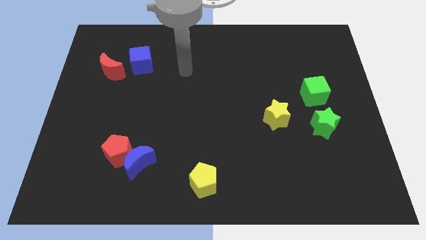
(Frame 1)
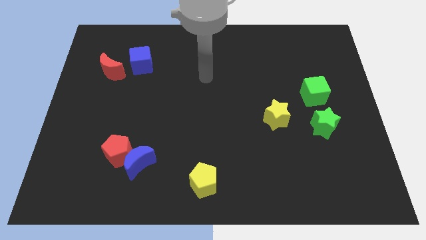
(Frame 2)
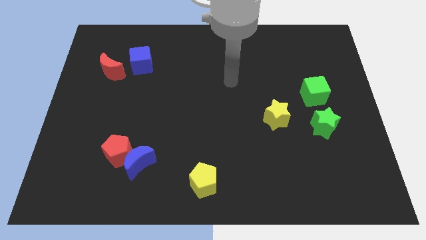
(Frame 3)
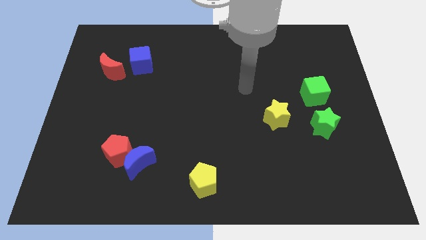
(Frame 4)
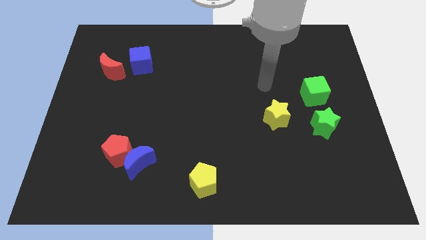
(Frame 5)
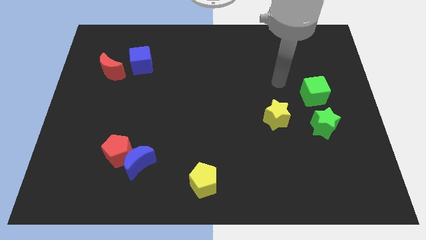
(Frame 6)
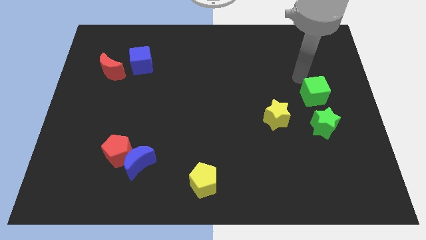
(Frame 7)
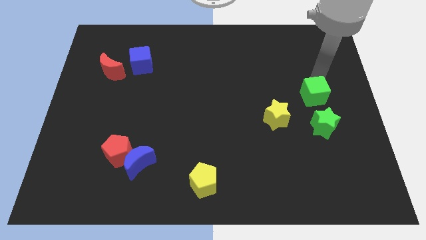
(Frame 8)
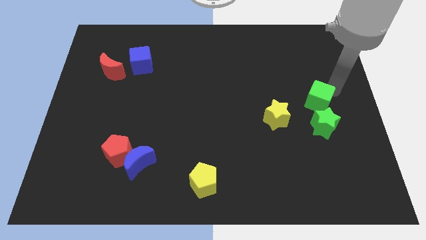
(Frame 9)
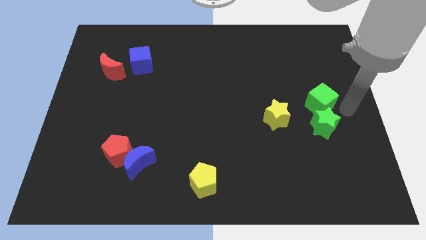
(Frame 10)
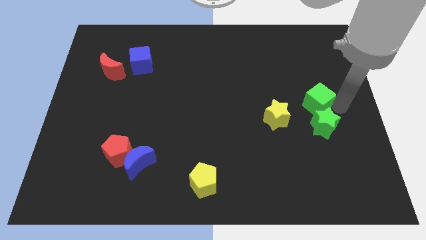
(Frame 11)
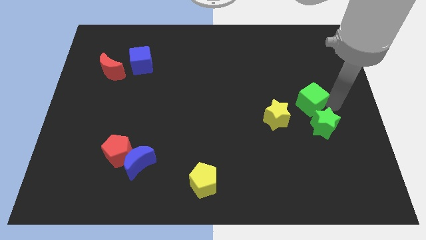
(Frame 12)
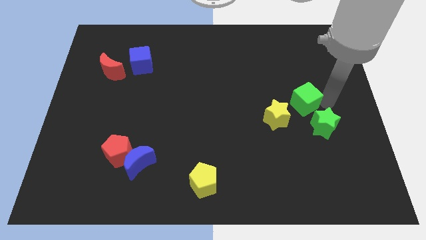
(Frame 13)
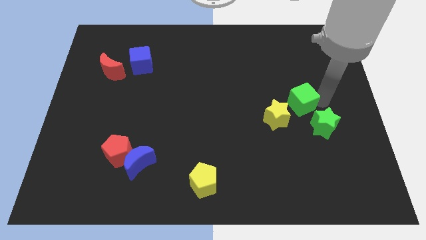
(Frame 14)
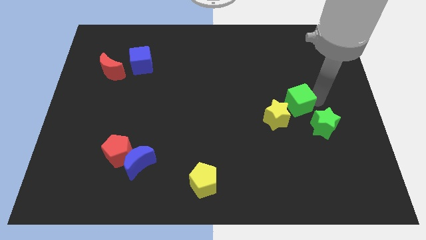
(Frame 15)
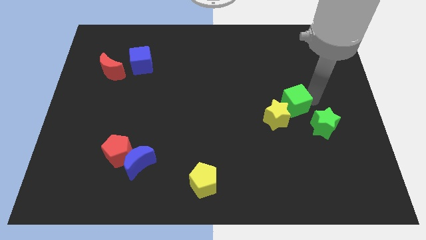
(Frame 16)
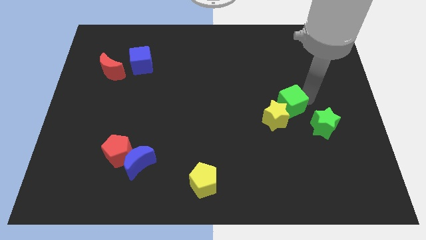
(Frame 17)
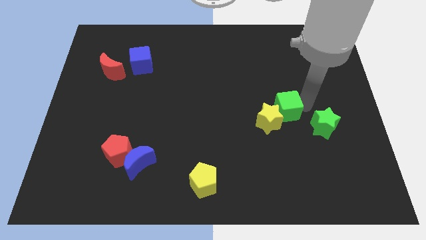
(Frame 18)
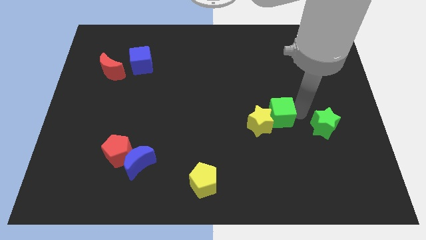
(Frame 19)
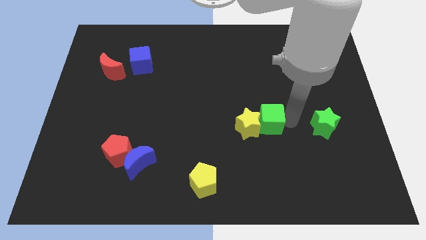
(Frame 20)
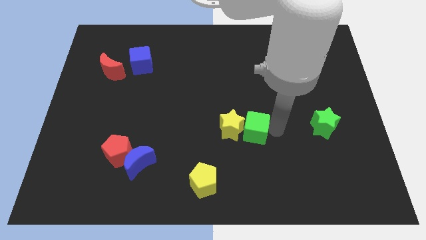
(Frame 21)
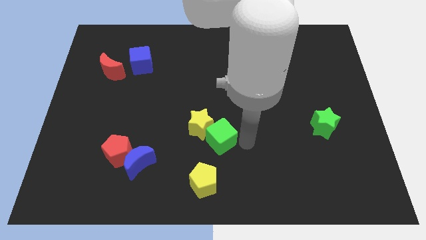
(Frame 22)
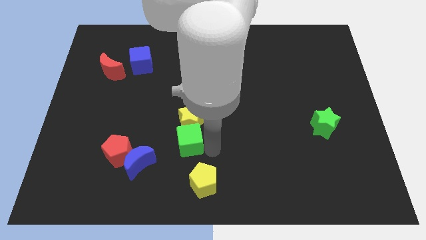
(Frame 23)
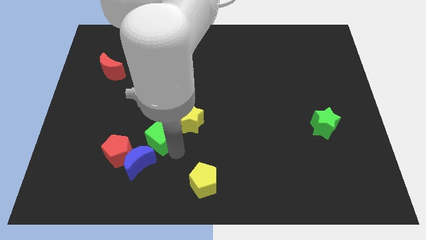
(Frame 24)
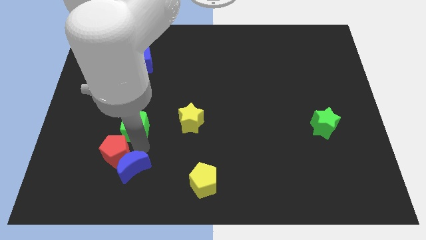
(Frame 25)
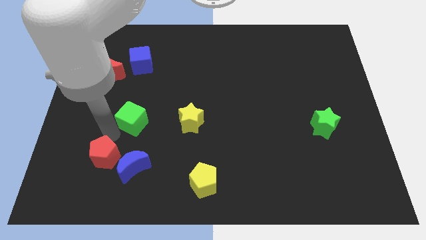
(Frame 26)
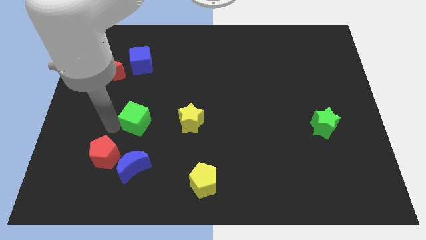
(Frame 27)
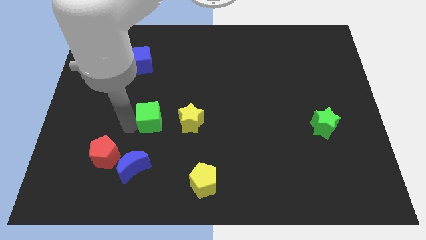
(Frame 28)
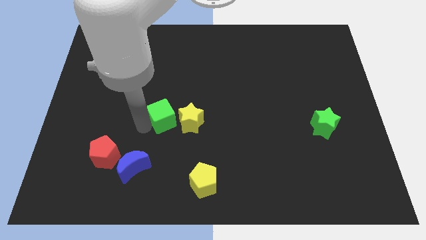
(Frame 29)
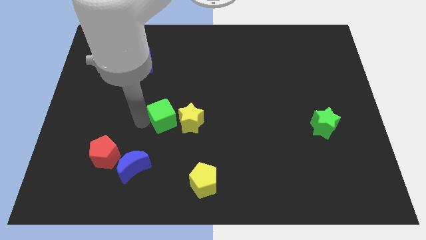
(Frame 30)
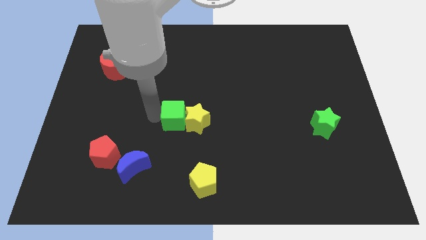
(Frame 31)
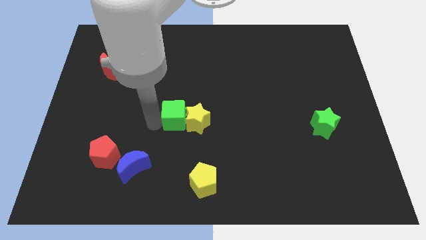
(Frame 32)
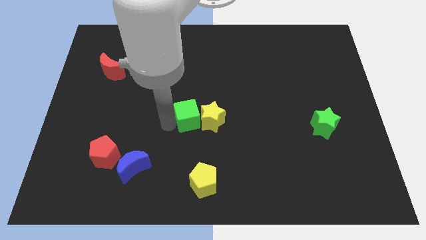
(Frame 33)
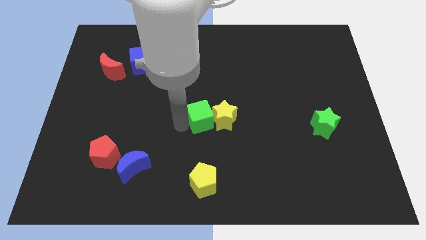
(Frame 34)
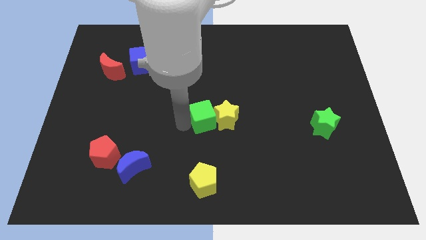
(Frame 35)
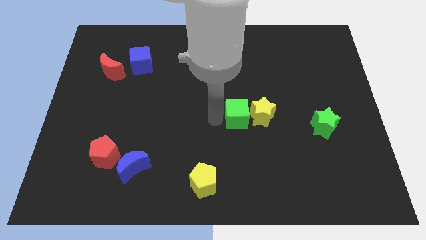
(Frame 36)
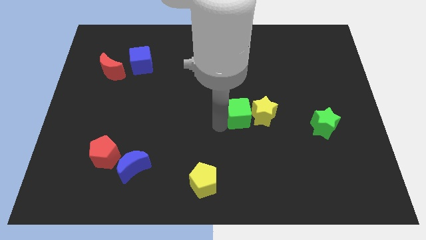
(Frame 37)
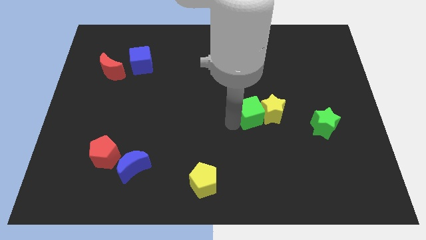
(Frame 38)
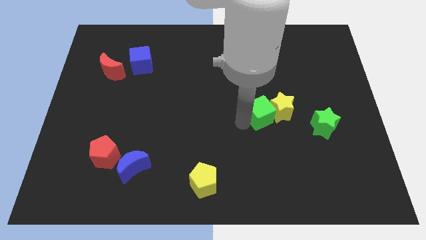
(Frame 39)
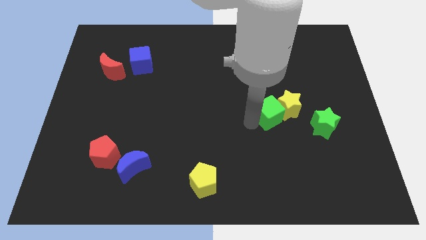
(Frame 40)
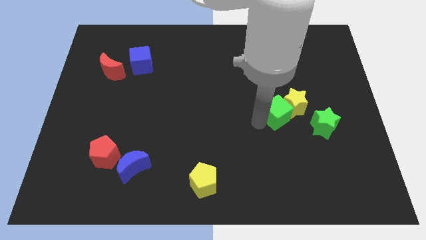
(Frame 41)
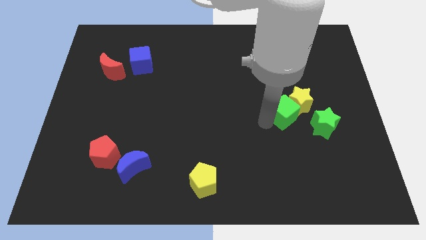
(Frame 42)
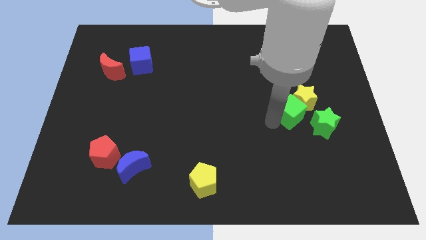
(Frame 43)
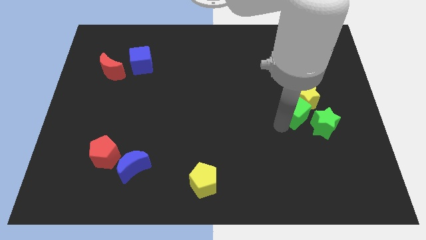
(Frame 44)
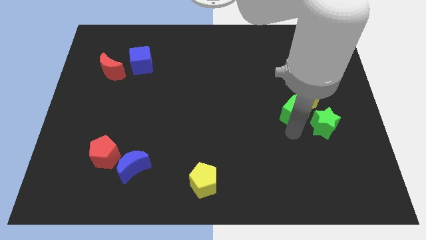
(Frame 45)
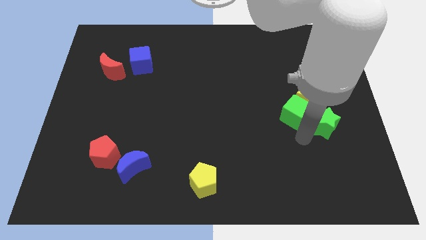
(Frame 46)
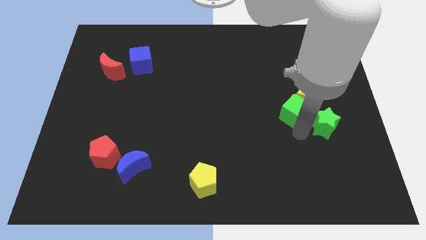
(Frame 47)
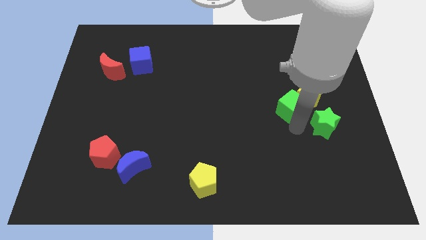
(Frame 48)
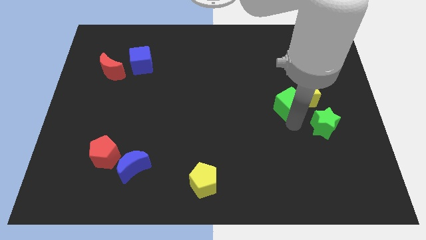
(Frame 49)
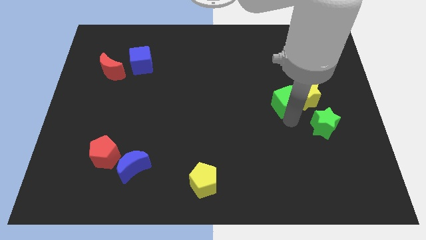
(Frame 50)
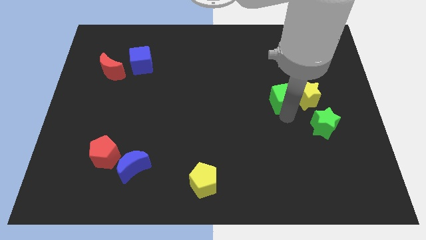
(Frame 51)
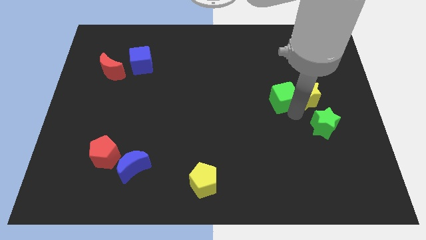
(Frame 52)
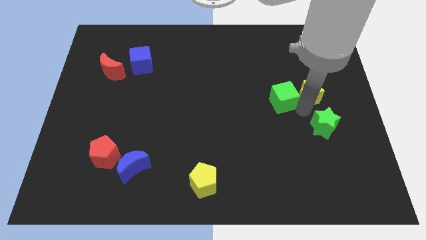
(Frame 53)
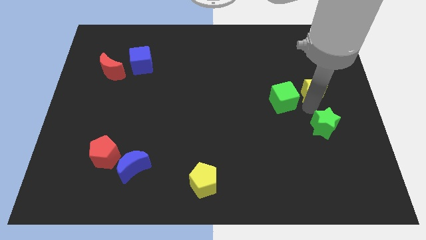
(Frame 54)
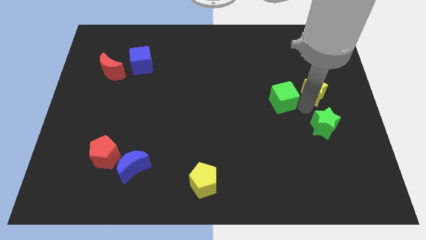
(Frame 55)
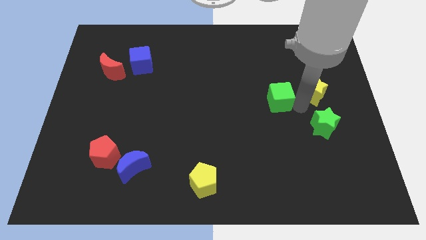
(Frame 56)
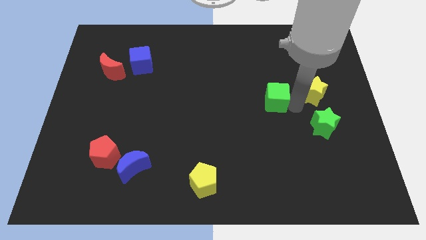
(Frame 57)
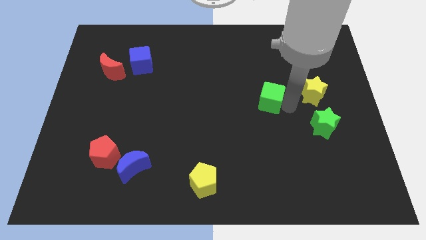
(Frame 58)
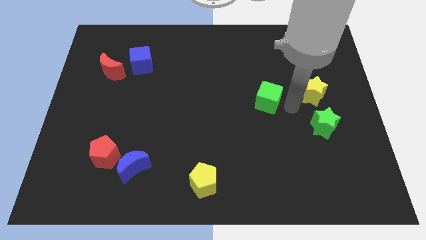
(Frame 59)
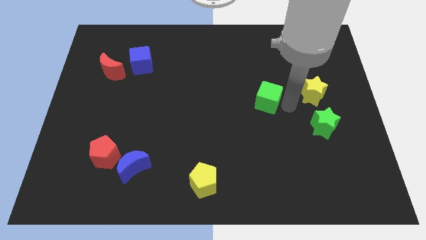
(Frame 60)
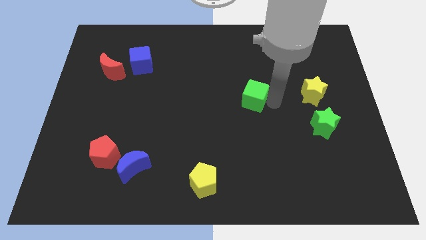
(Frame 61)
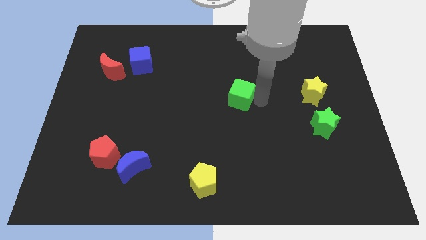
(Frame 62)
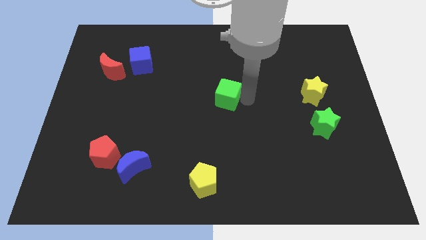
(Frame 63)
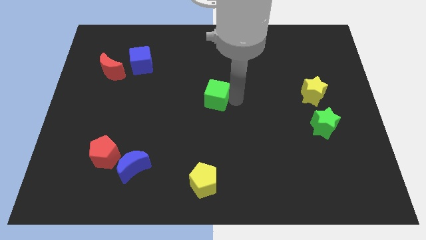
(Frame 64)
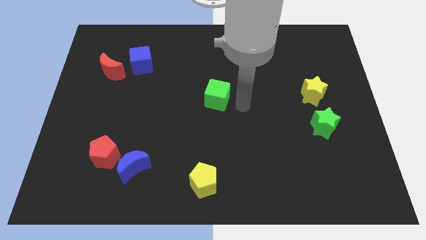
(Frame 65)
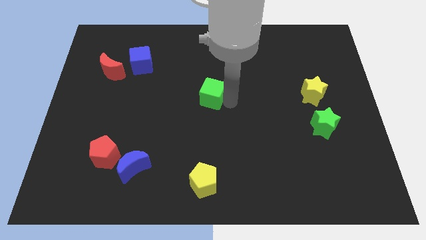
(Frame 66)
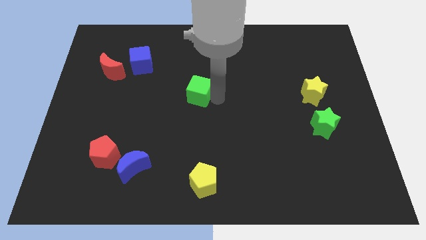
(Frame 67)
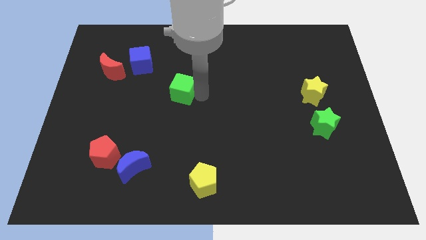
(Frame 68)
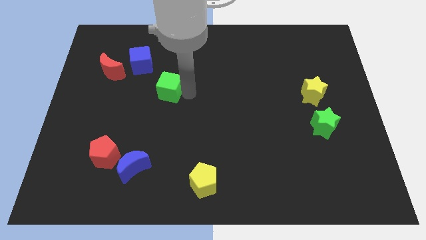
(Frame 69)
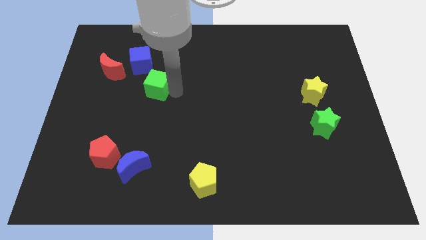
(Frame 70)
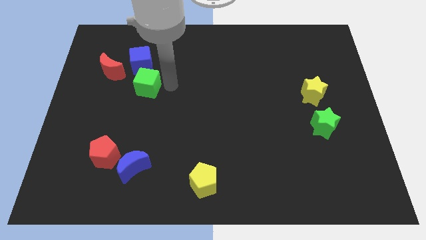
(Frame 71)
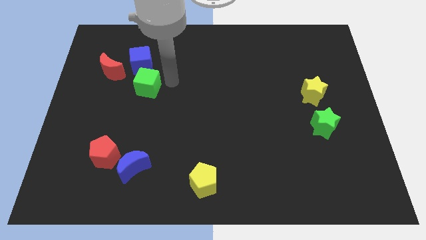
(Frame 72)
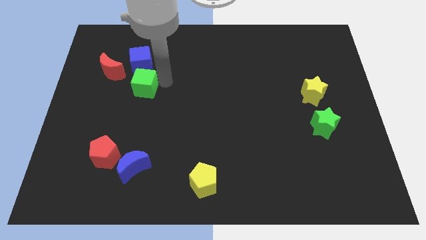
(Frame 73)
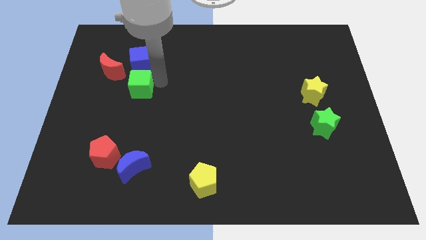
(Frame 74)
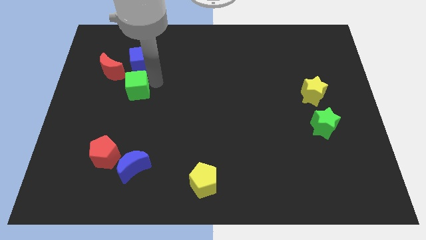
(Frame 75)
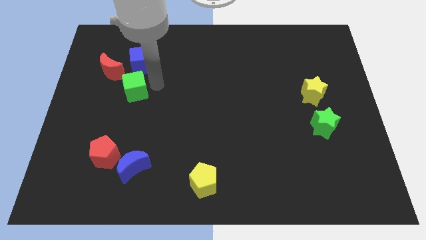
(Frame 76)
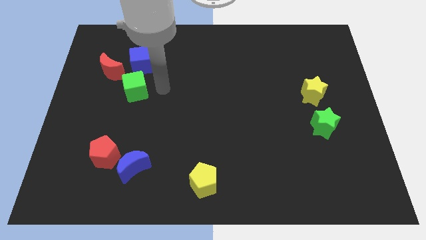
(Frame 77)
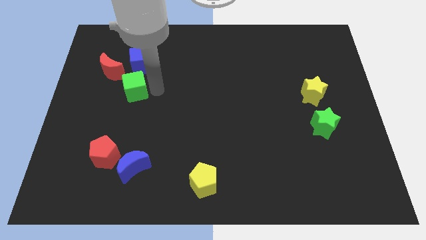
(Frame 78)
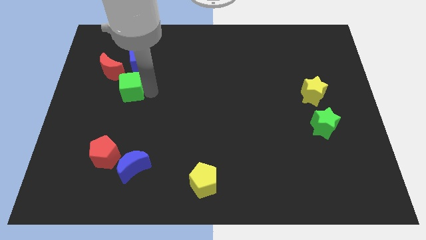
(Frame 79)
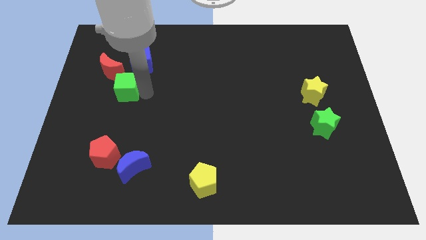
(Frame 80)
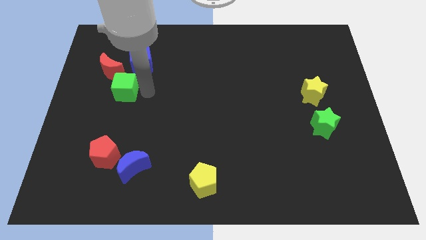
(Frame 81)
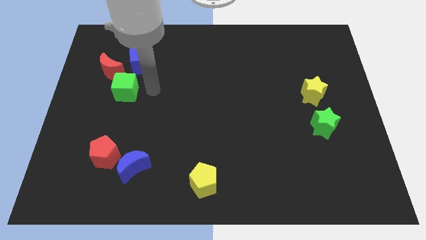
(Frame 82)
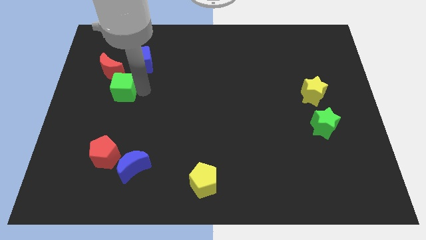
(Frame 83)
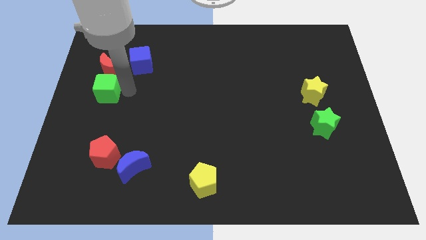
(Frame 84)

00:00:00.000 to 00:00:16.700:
put the green cube to the center left
